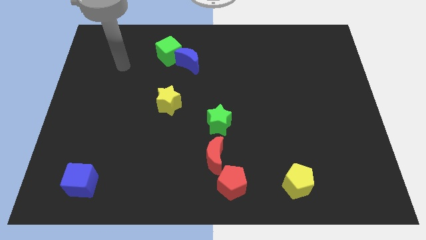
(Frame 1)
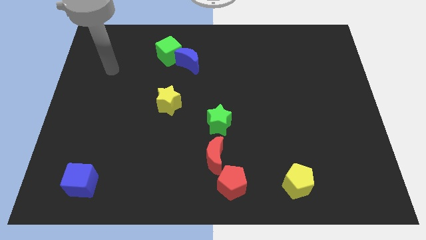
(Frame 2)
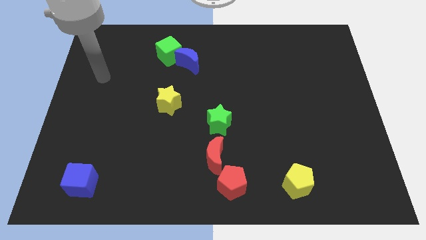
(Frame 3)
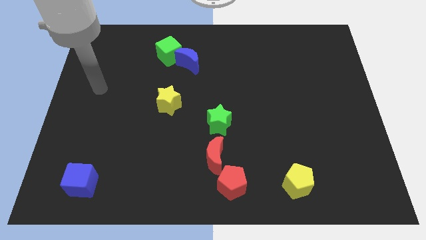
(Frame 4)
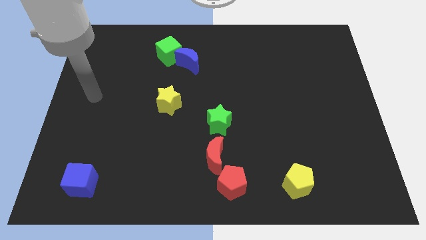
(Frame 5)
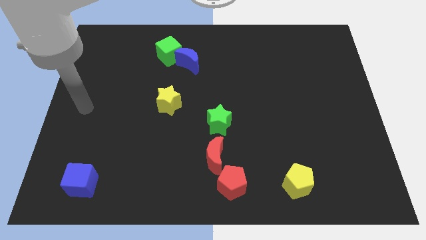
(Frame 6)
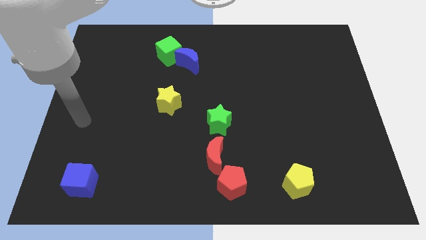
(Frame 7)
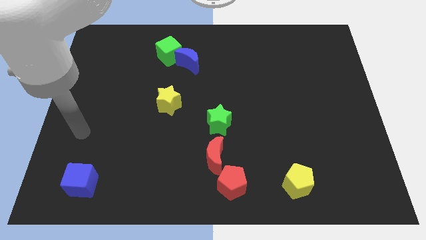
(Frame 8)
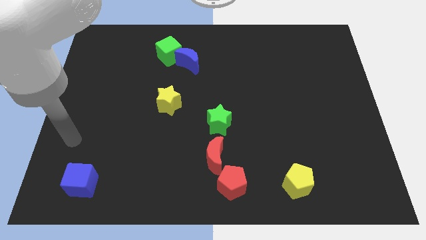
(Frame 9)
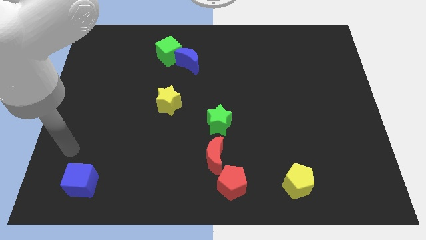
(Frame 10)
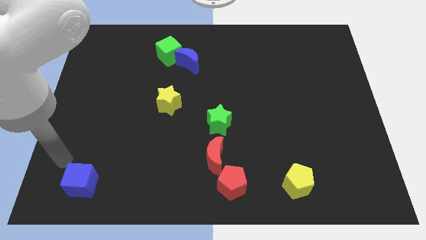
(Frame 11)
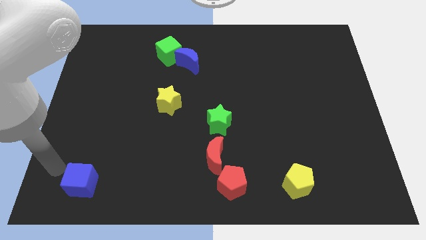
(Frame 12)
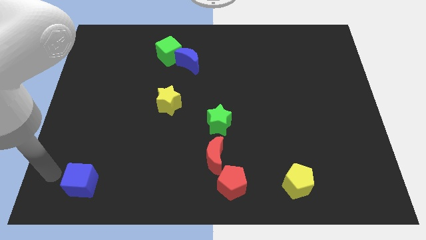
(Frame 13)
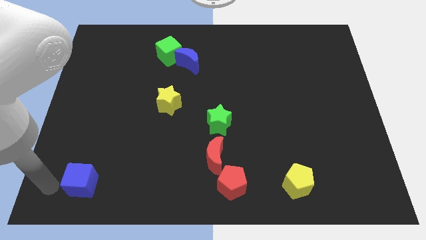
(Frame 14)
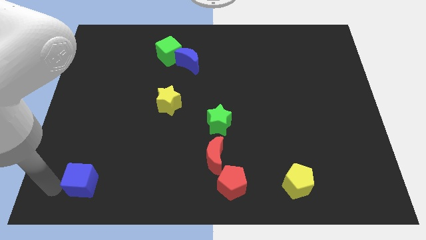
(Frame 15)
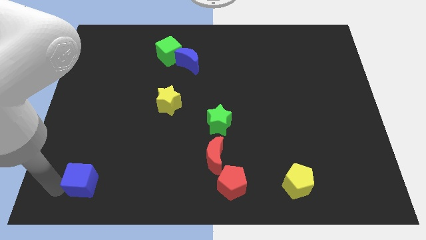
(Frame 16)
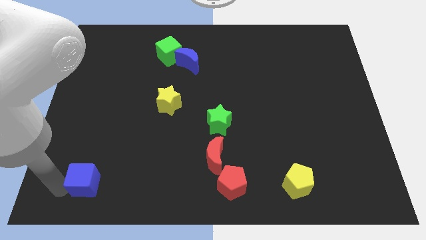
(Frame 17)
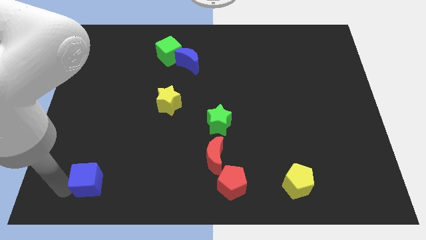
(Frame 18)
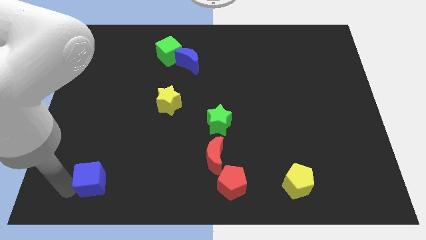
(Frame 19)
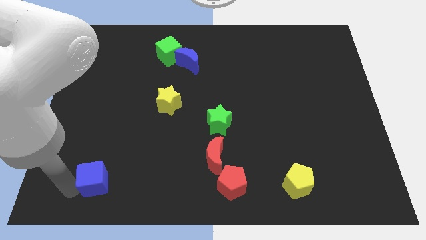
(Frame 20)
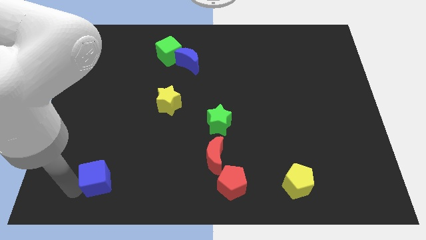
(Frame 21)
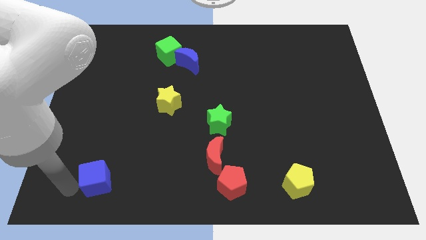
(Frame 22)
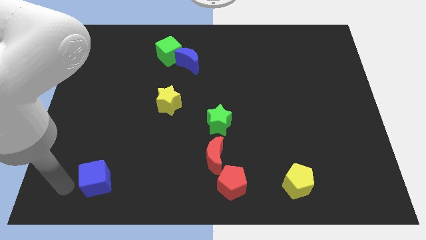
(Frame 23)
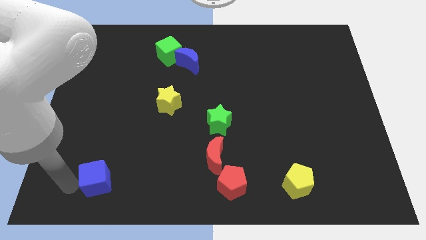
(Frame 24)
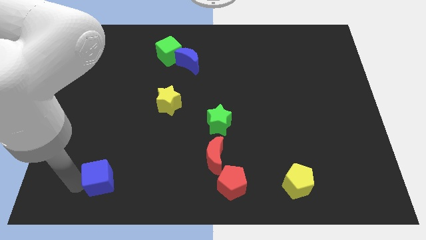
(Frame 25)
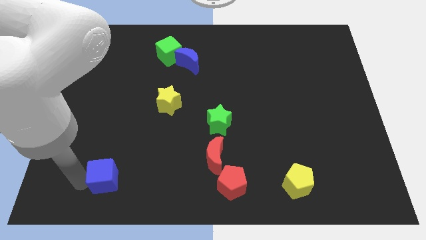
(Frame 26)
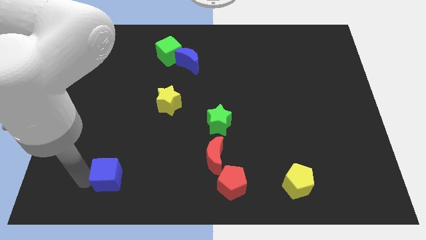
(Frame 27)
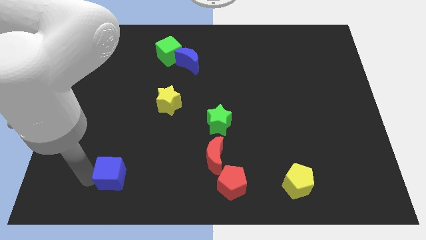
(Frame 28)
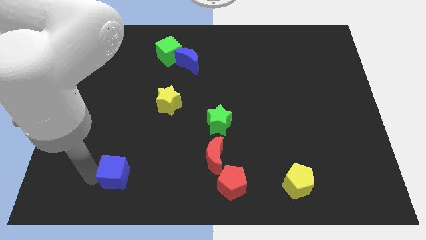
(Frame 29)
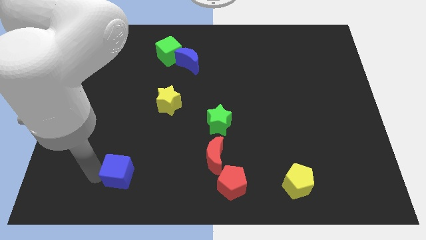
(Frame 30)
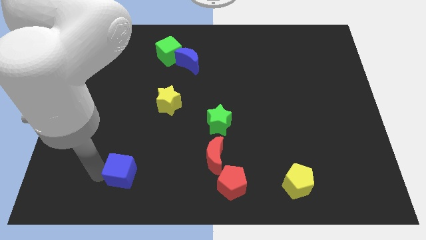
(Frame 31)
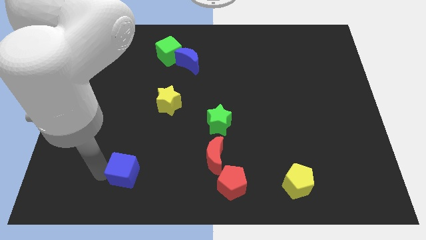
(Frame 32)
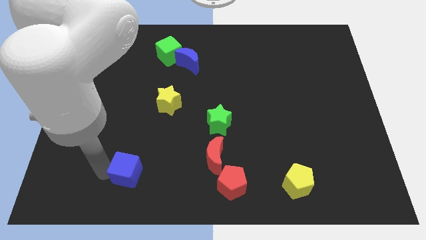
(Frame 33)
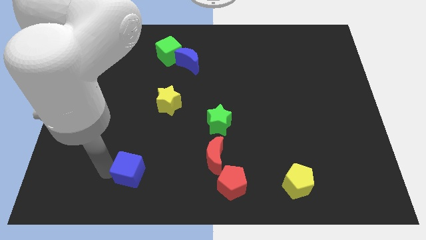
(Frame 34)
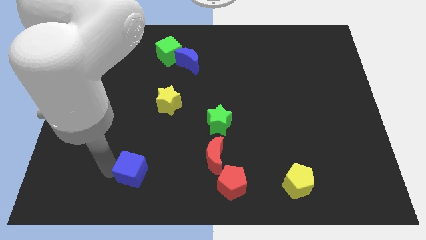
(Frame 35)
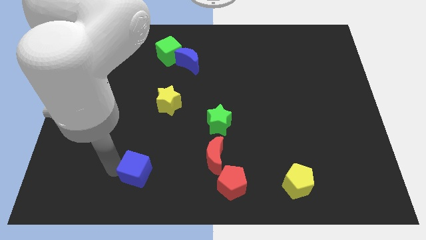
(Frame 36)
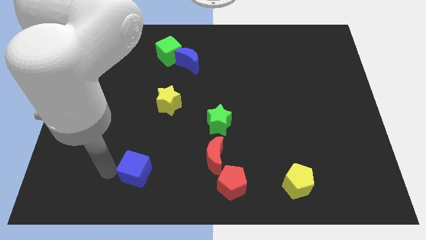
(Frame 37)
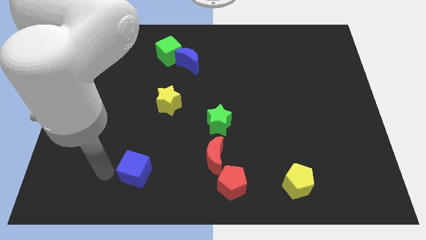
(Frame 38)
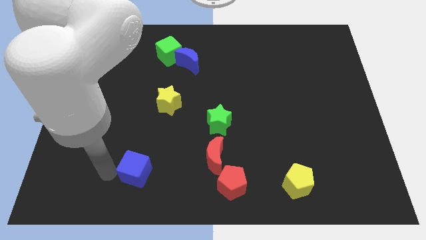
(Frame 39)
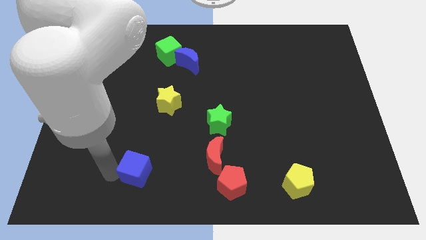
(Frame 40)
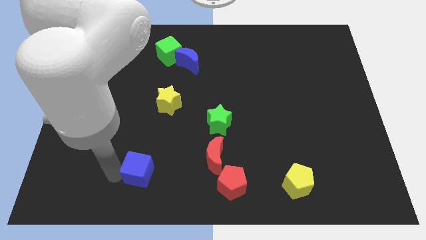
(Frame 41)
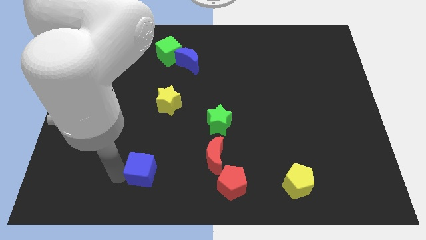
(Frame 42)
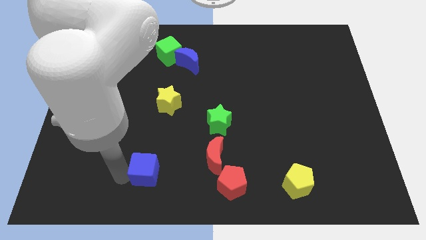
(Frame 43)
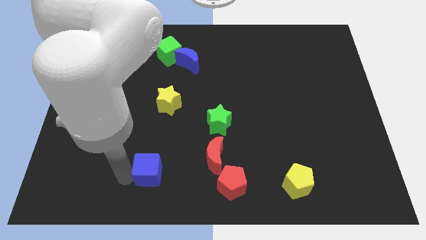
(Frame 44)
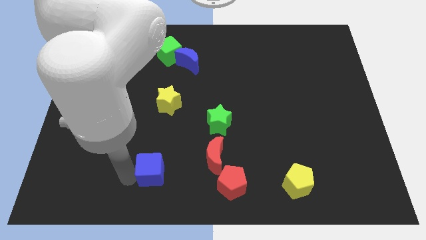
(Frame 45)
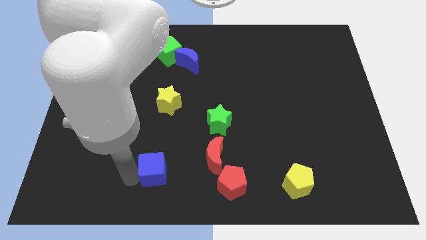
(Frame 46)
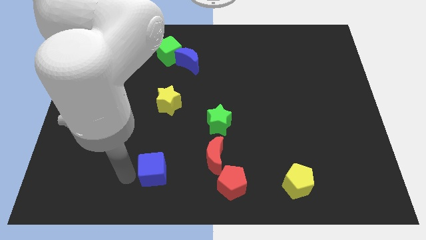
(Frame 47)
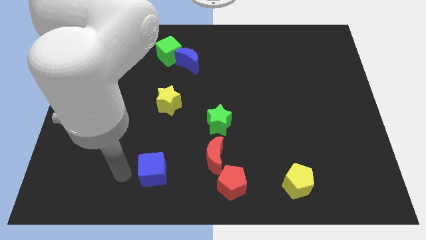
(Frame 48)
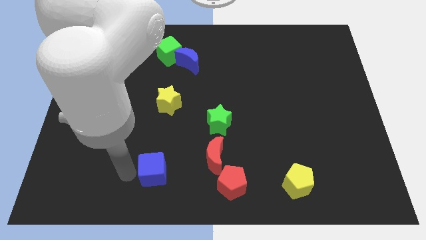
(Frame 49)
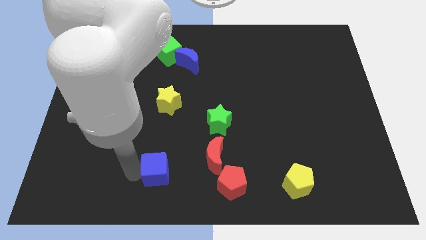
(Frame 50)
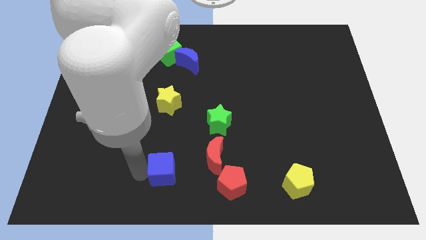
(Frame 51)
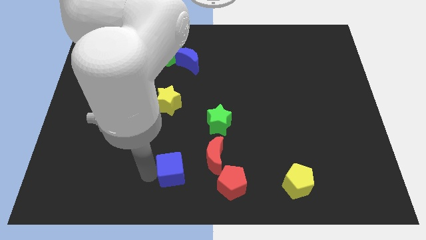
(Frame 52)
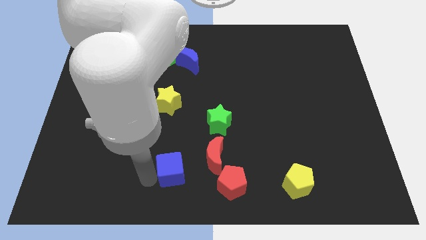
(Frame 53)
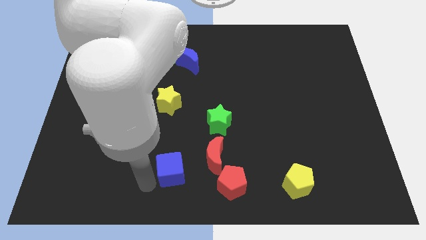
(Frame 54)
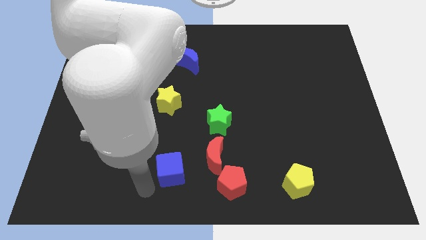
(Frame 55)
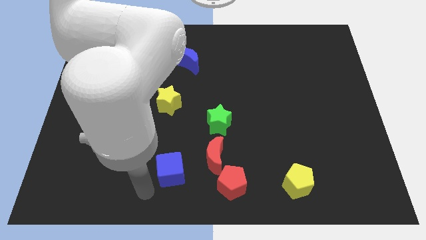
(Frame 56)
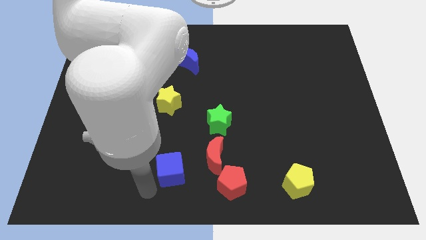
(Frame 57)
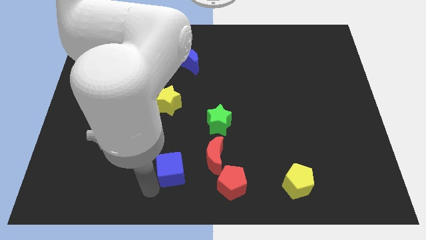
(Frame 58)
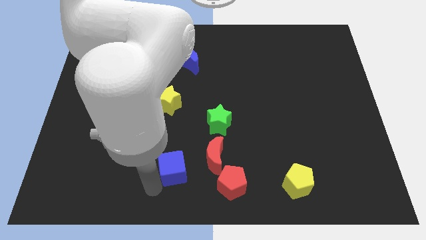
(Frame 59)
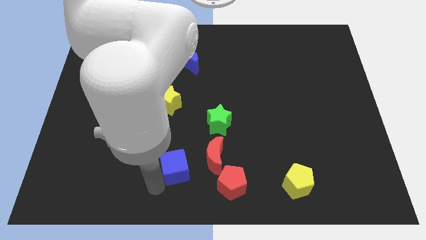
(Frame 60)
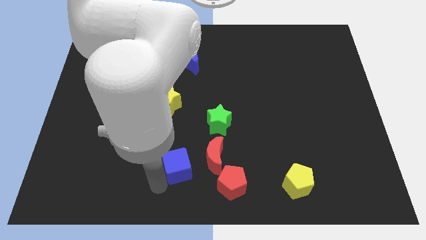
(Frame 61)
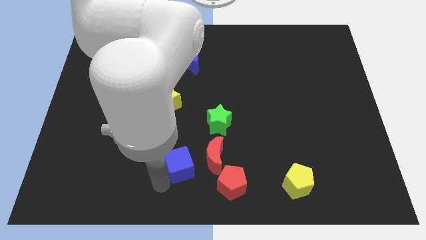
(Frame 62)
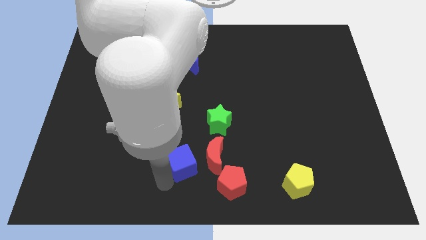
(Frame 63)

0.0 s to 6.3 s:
move the blue cube to the top left side of the red pentagon

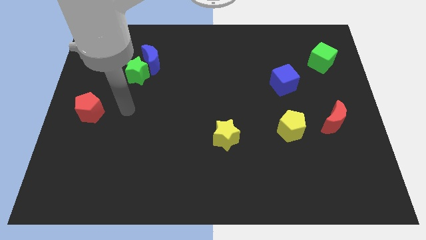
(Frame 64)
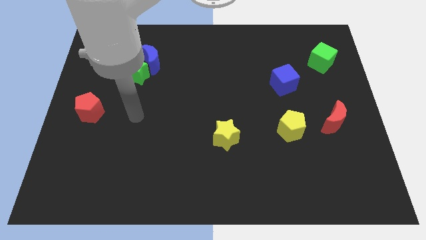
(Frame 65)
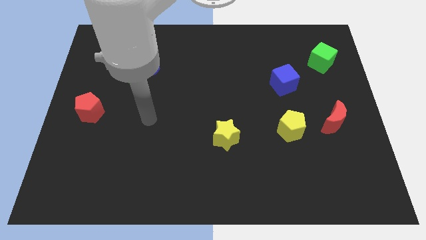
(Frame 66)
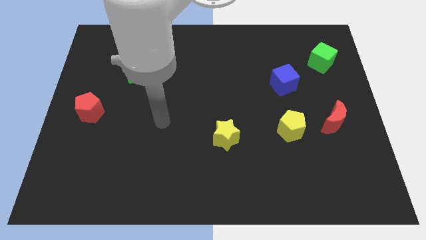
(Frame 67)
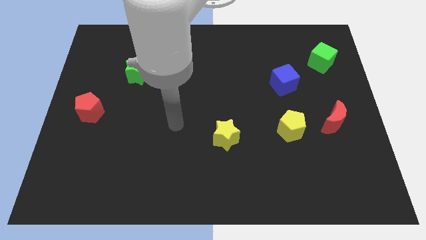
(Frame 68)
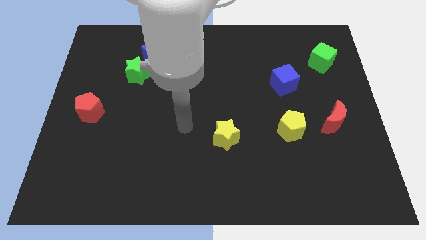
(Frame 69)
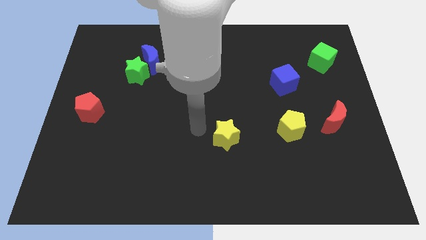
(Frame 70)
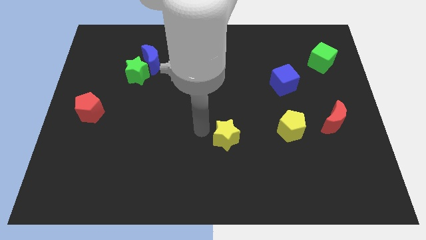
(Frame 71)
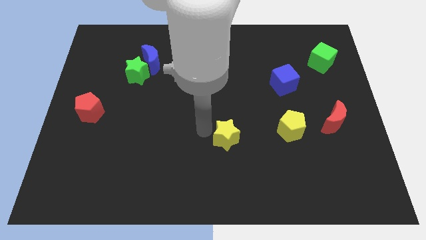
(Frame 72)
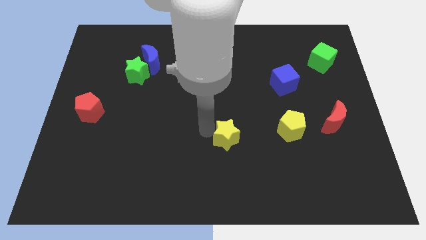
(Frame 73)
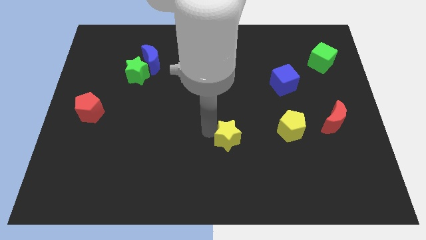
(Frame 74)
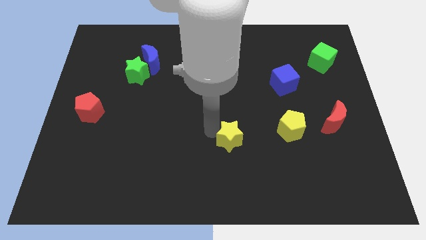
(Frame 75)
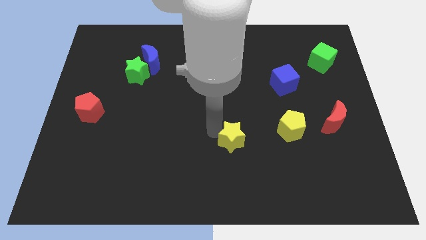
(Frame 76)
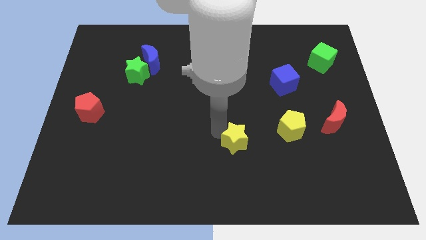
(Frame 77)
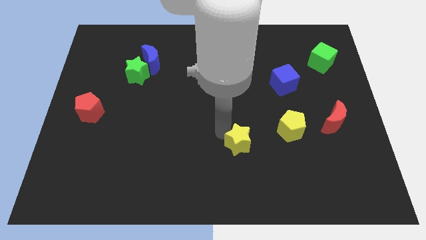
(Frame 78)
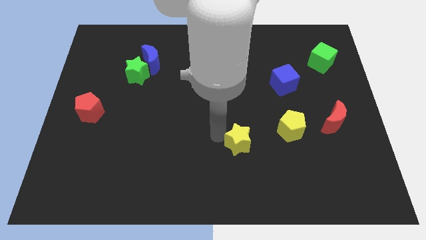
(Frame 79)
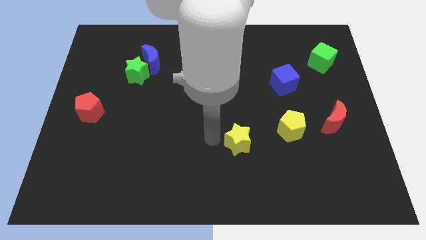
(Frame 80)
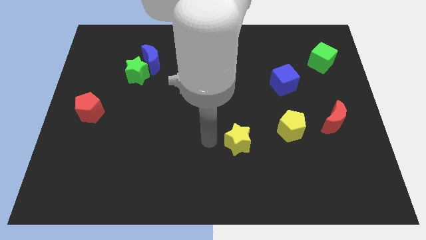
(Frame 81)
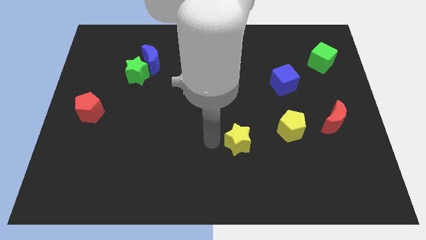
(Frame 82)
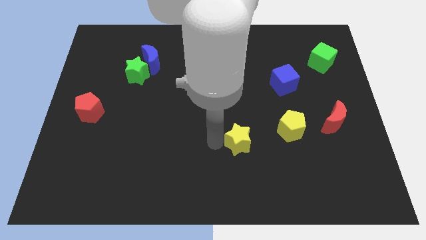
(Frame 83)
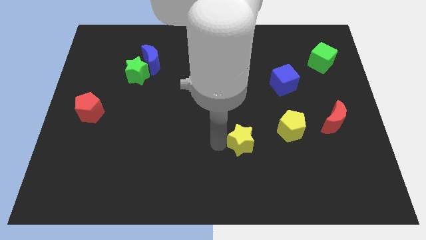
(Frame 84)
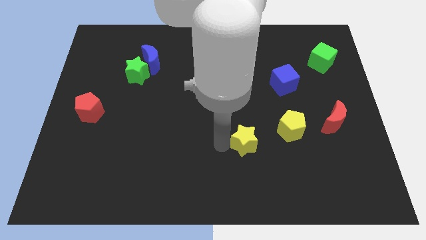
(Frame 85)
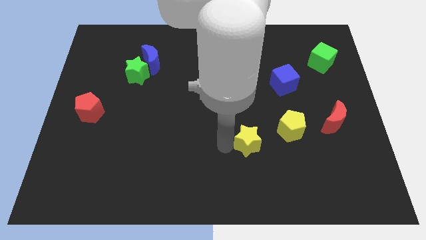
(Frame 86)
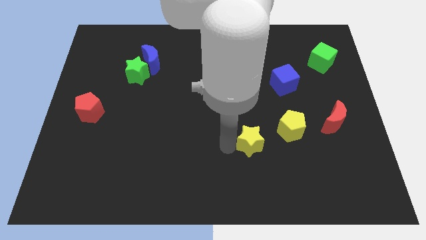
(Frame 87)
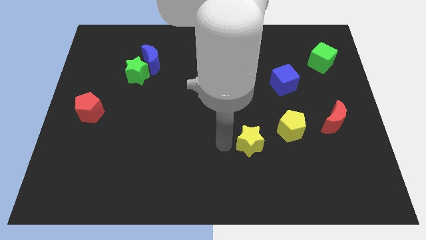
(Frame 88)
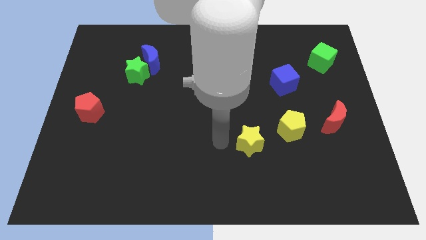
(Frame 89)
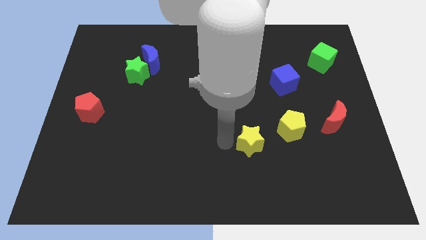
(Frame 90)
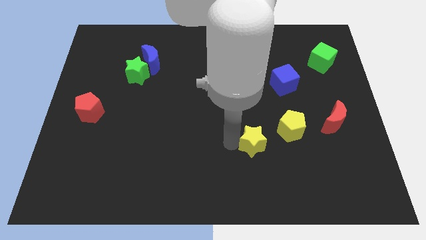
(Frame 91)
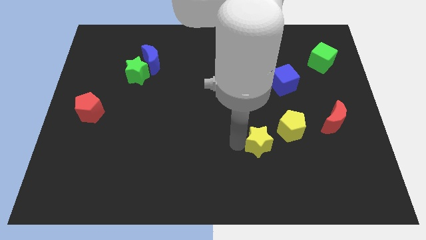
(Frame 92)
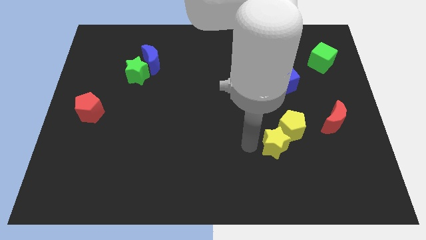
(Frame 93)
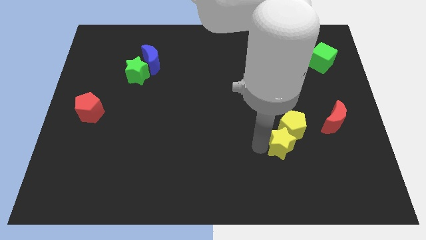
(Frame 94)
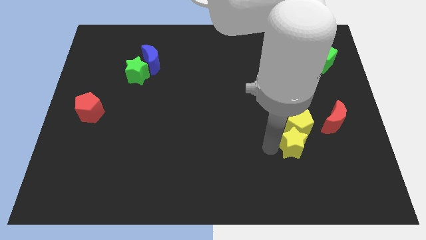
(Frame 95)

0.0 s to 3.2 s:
push the yellow star diagonally down and to the left of the red moon
